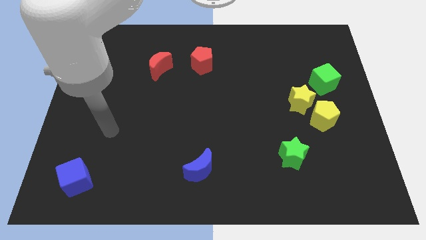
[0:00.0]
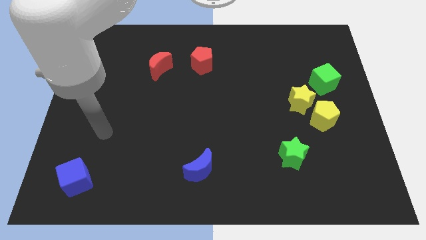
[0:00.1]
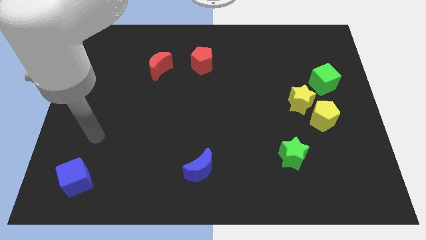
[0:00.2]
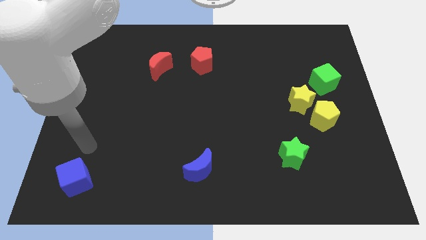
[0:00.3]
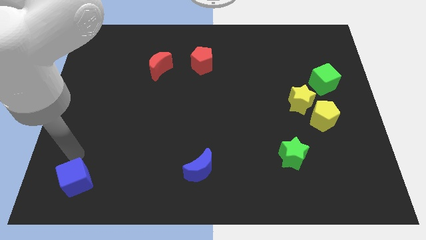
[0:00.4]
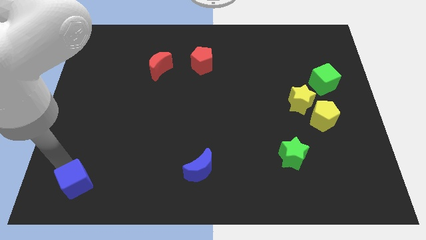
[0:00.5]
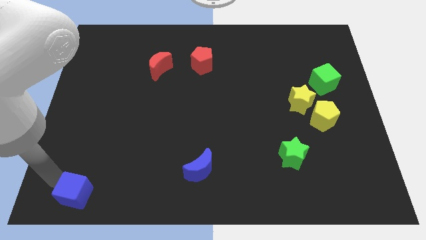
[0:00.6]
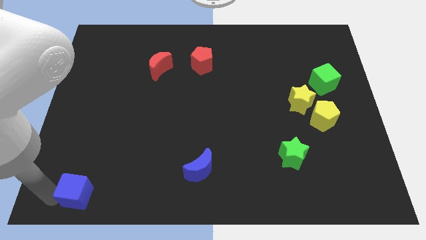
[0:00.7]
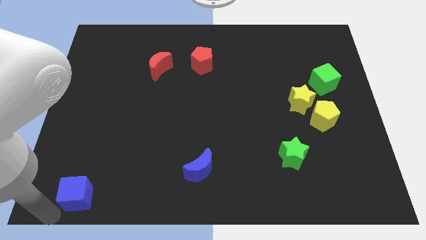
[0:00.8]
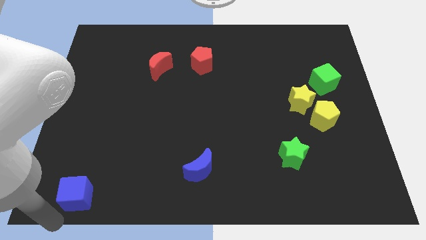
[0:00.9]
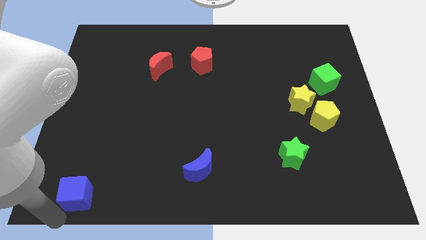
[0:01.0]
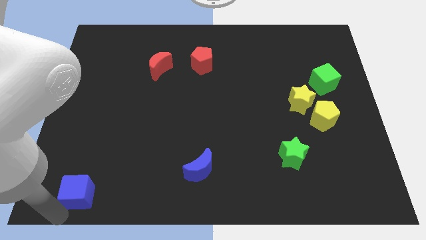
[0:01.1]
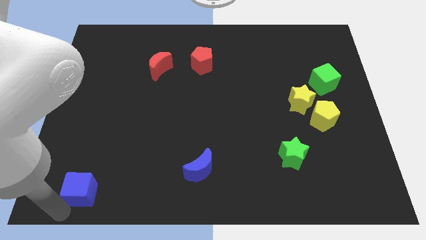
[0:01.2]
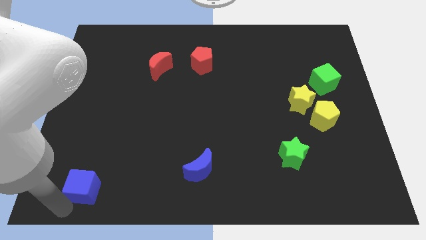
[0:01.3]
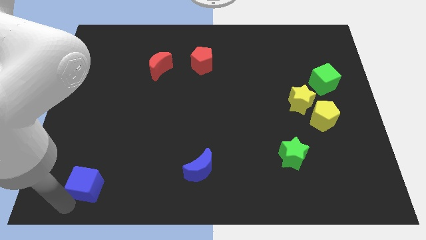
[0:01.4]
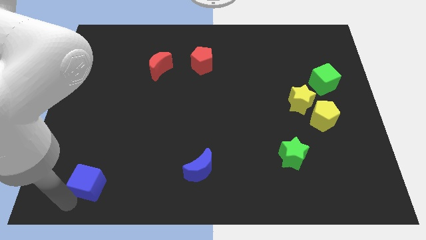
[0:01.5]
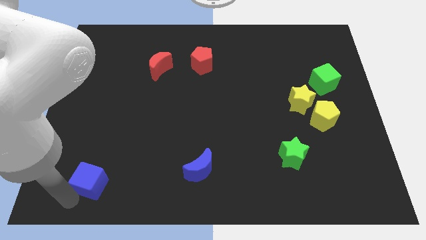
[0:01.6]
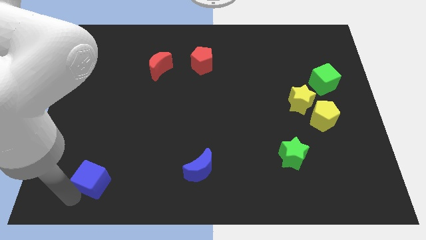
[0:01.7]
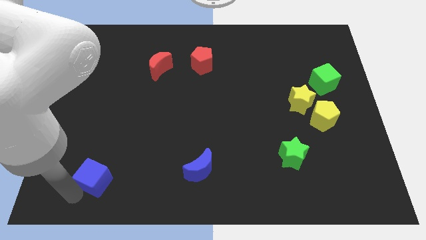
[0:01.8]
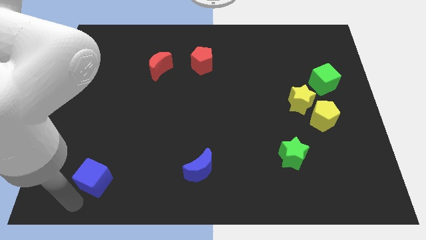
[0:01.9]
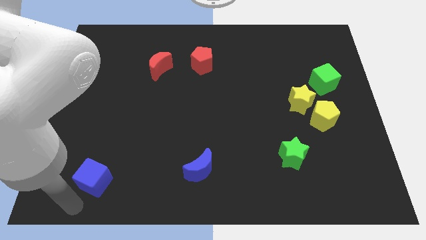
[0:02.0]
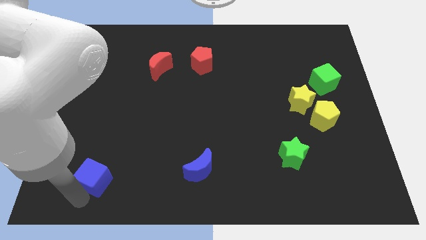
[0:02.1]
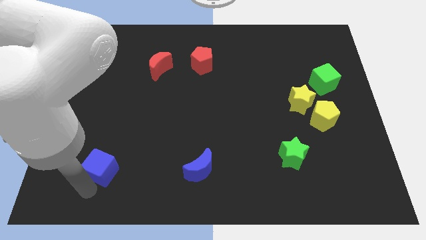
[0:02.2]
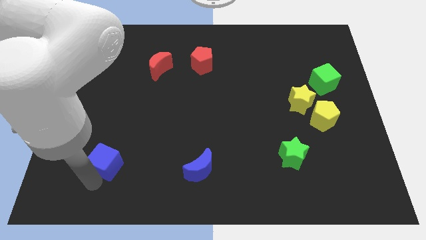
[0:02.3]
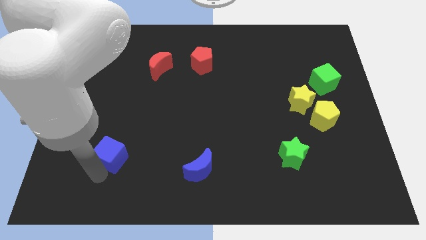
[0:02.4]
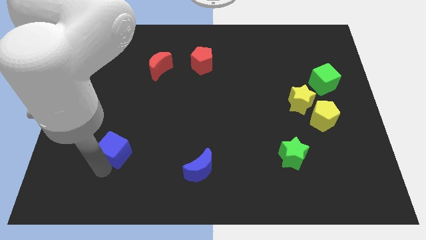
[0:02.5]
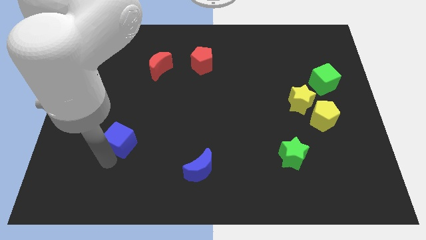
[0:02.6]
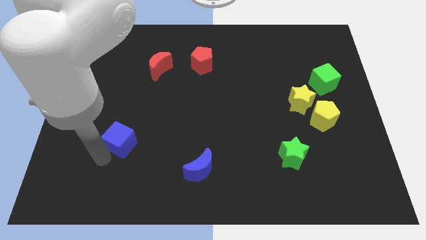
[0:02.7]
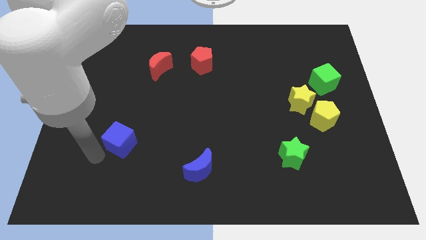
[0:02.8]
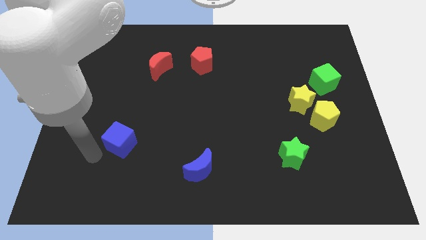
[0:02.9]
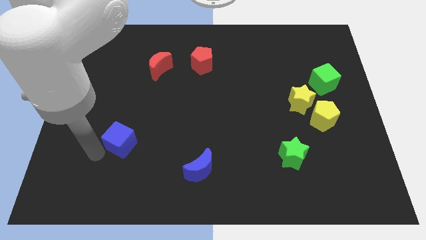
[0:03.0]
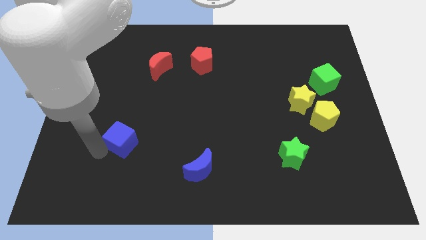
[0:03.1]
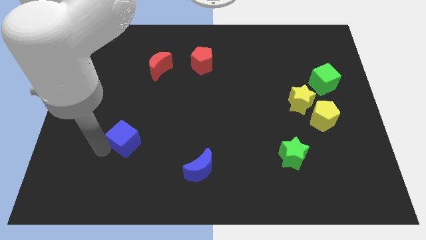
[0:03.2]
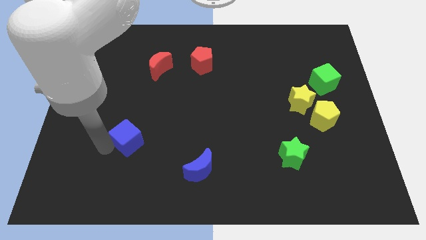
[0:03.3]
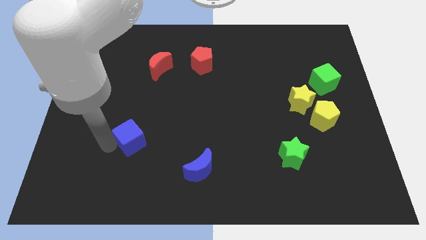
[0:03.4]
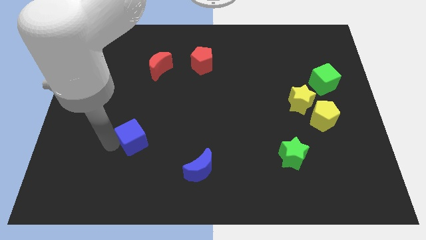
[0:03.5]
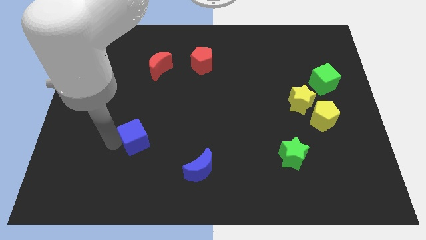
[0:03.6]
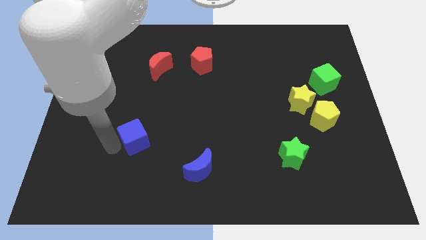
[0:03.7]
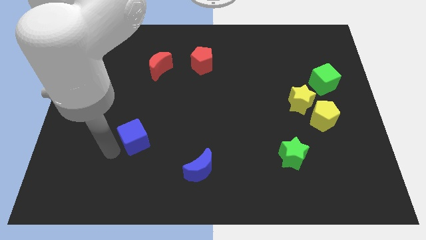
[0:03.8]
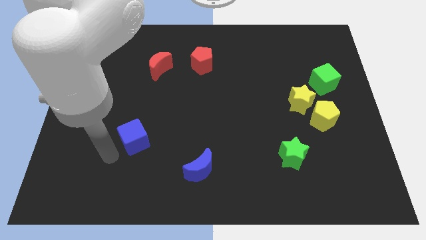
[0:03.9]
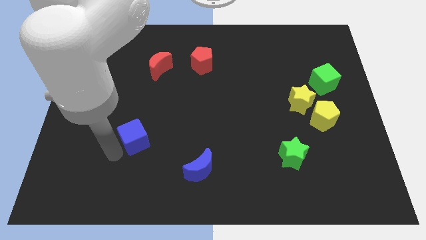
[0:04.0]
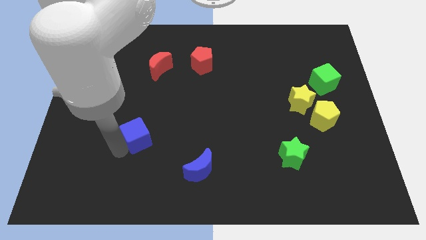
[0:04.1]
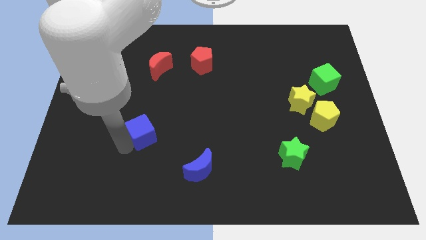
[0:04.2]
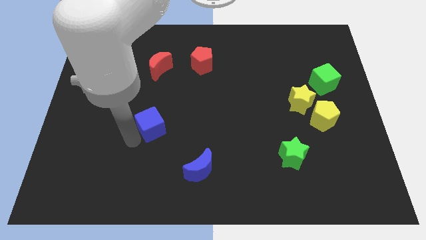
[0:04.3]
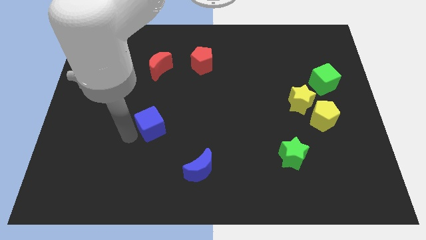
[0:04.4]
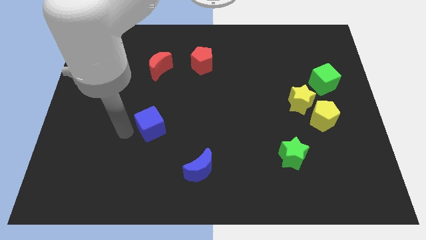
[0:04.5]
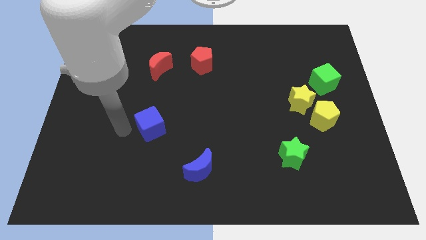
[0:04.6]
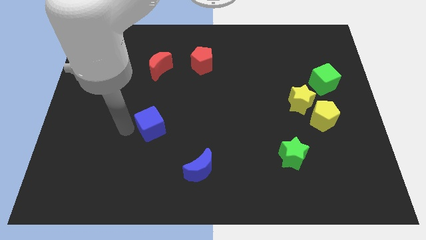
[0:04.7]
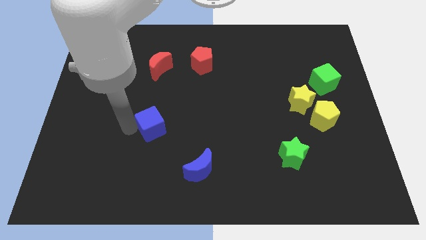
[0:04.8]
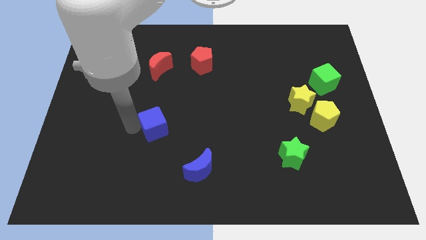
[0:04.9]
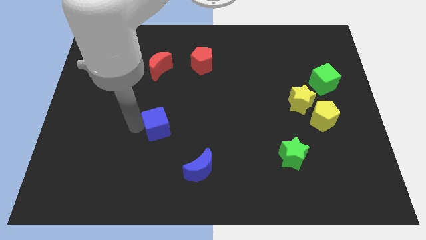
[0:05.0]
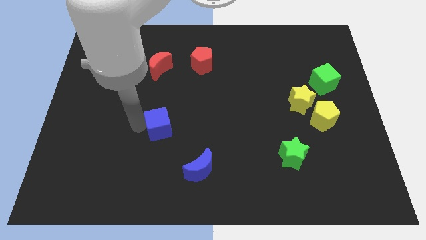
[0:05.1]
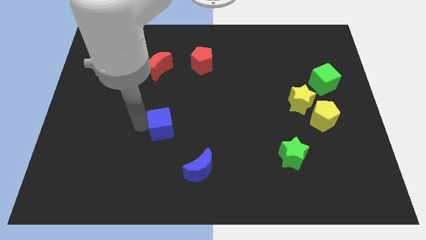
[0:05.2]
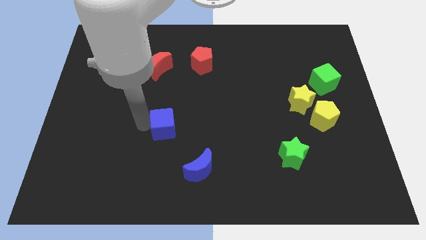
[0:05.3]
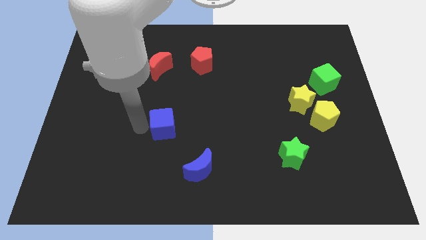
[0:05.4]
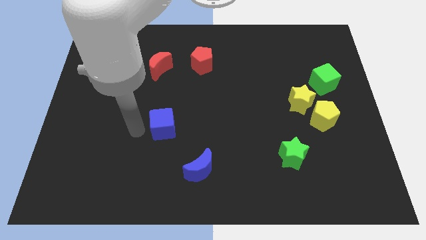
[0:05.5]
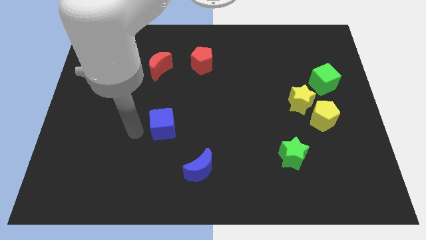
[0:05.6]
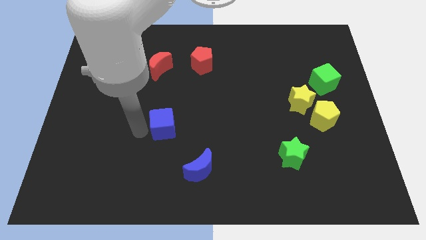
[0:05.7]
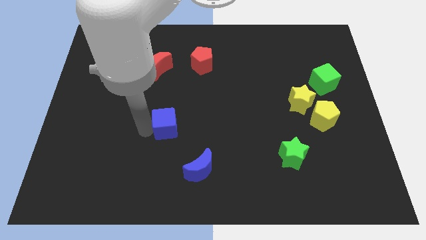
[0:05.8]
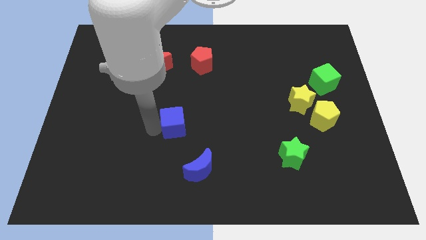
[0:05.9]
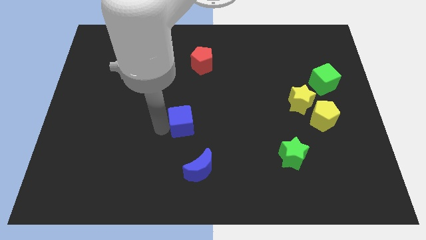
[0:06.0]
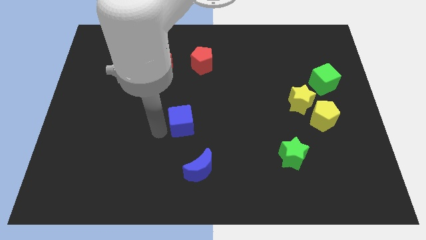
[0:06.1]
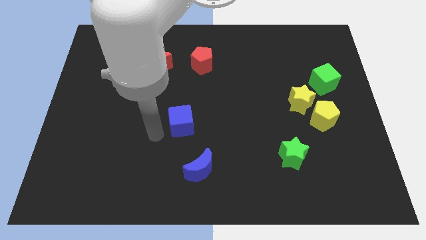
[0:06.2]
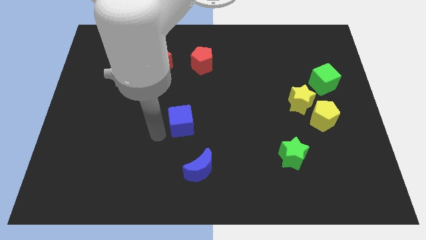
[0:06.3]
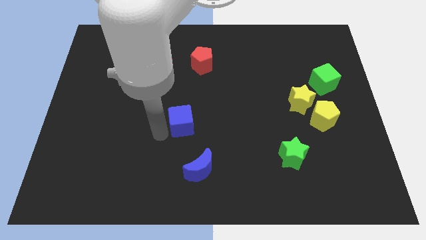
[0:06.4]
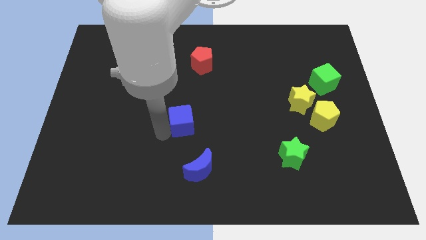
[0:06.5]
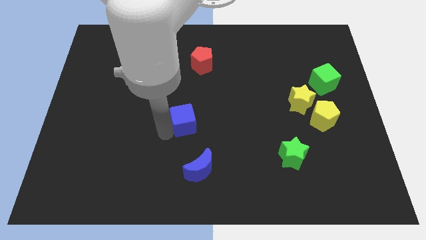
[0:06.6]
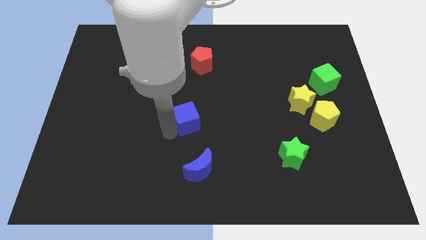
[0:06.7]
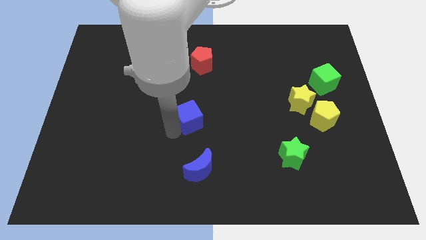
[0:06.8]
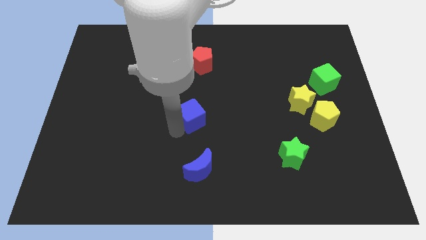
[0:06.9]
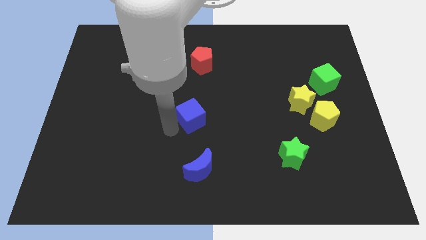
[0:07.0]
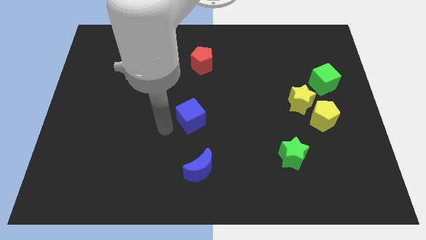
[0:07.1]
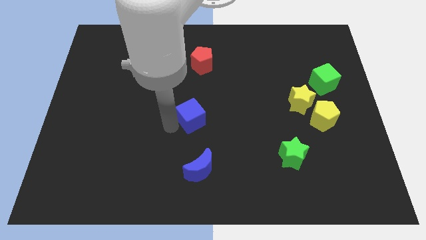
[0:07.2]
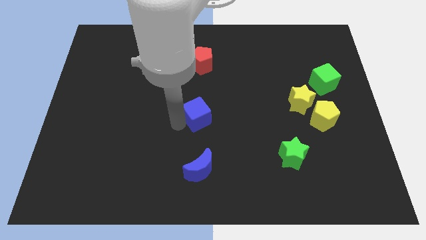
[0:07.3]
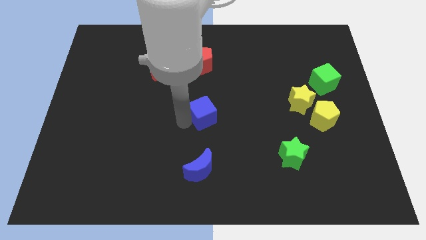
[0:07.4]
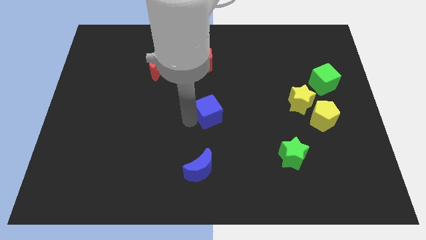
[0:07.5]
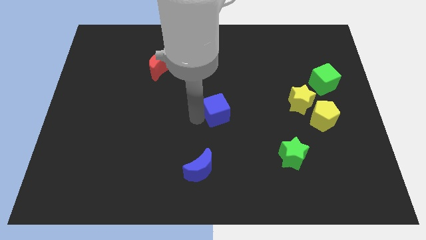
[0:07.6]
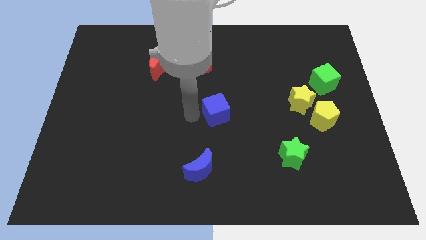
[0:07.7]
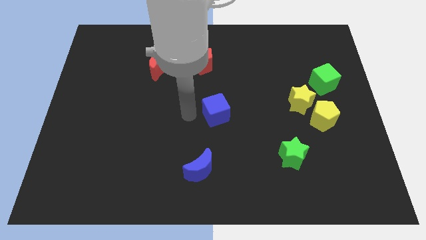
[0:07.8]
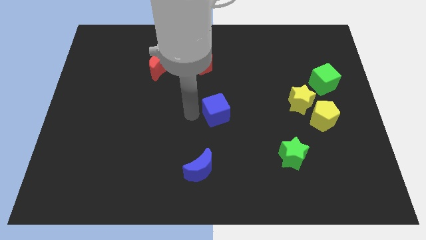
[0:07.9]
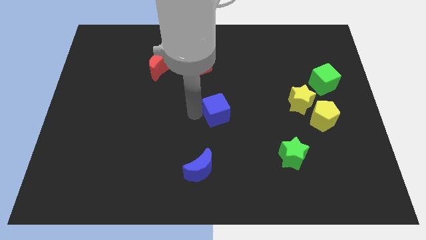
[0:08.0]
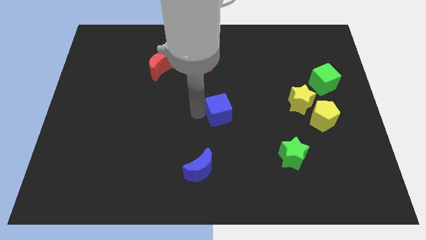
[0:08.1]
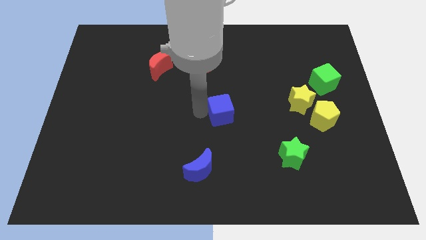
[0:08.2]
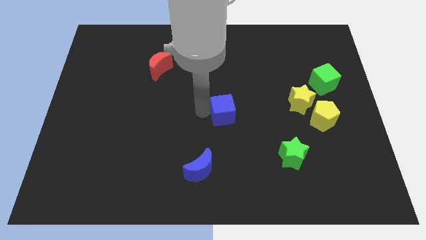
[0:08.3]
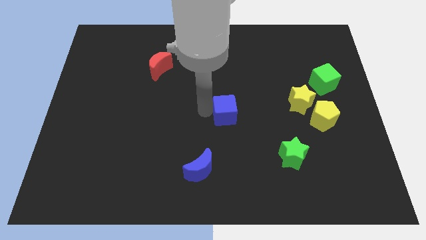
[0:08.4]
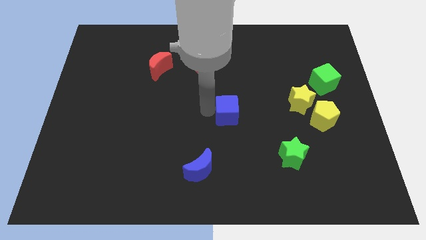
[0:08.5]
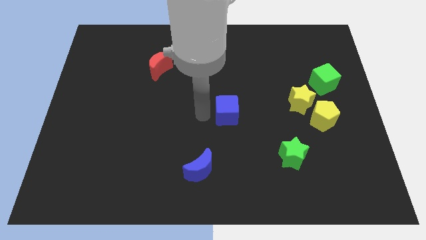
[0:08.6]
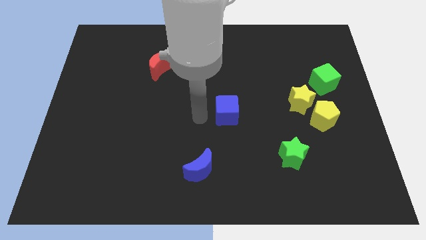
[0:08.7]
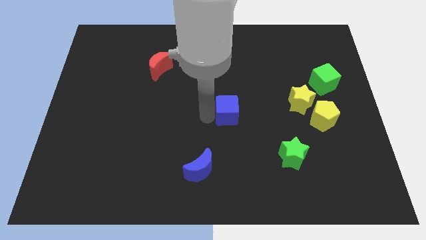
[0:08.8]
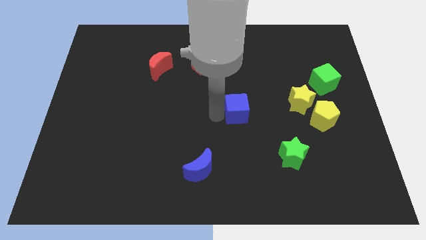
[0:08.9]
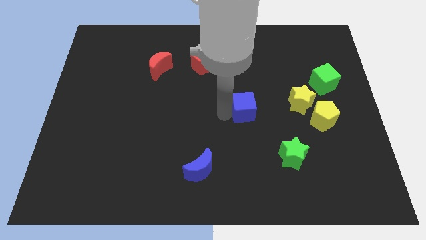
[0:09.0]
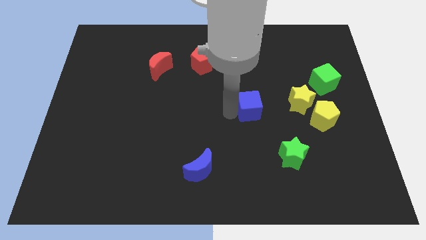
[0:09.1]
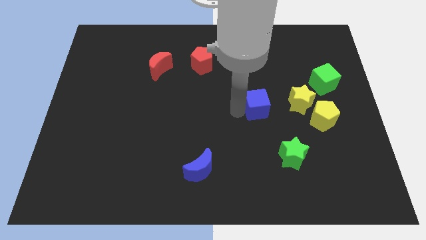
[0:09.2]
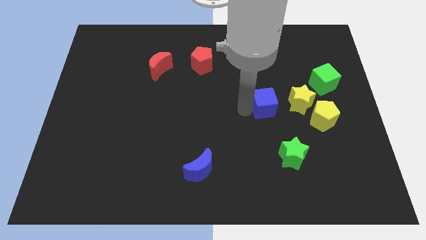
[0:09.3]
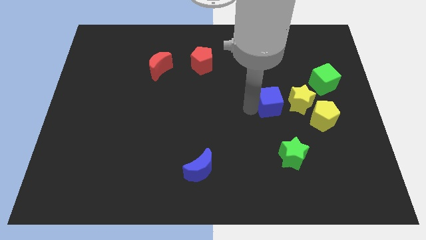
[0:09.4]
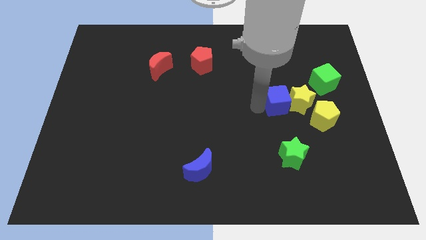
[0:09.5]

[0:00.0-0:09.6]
move the blue cube close to the yellow star
